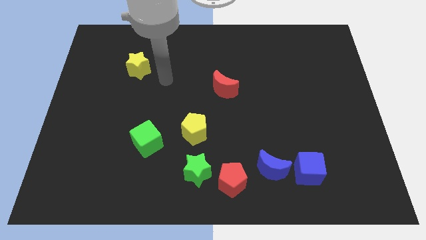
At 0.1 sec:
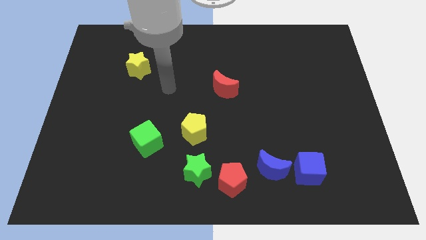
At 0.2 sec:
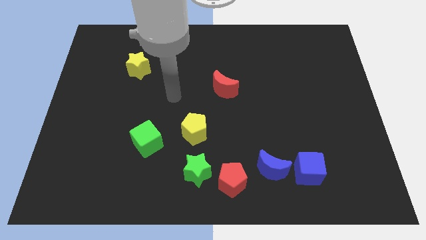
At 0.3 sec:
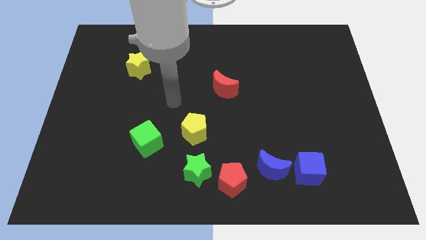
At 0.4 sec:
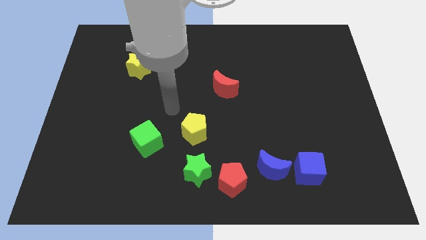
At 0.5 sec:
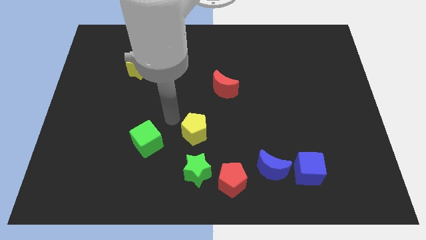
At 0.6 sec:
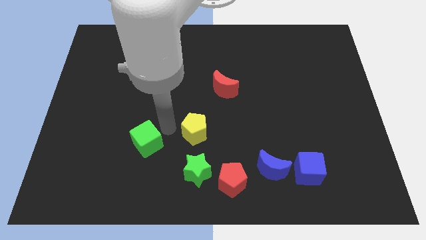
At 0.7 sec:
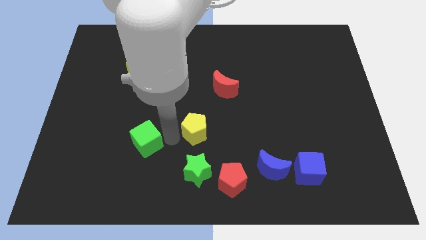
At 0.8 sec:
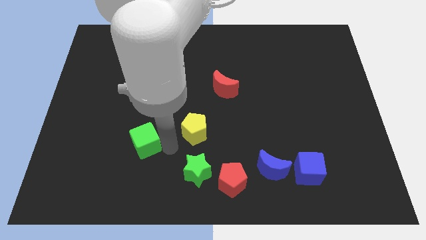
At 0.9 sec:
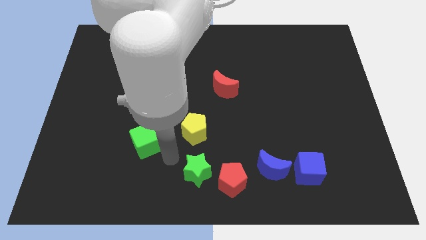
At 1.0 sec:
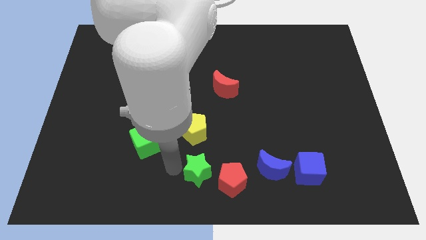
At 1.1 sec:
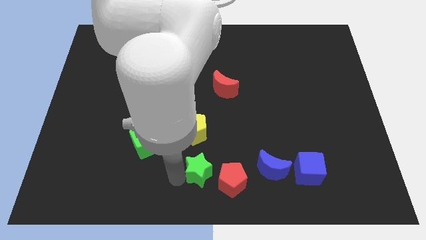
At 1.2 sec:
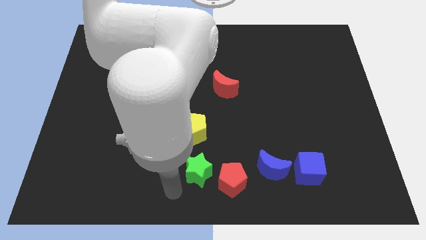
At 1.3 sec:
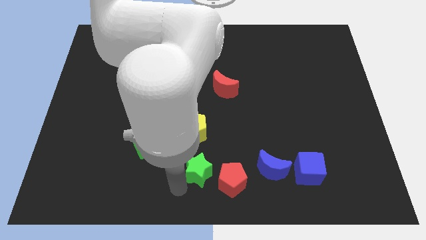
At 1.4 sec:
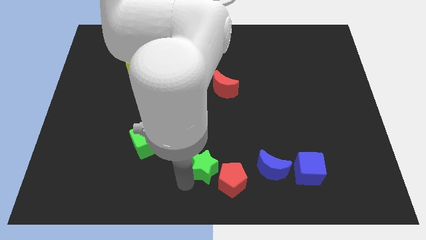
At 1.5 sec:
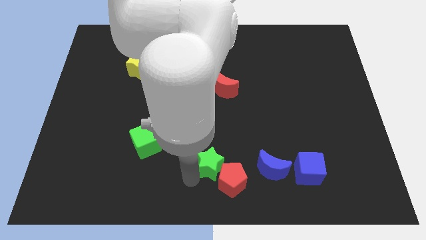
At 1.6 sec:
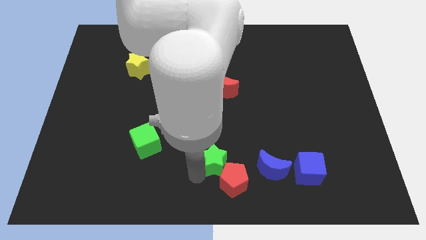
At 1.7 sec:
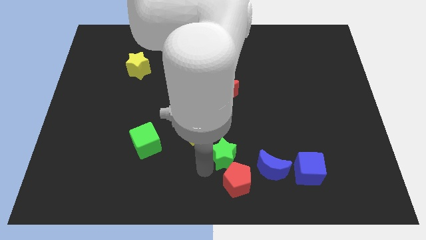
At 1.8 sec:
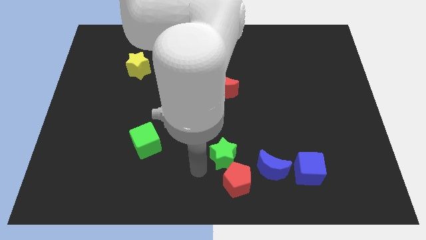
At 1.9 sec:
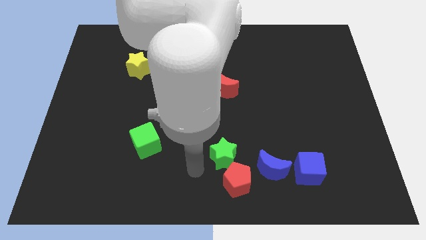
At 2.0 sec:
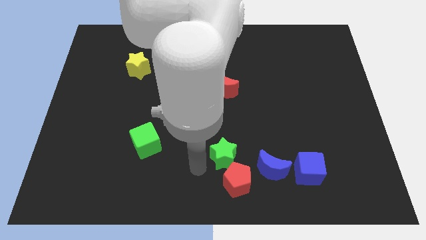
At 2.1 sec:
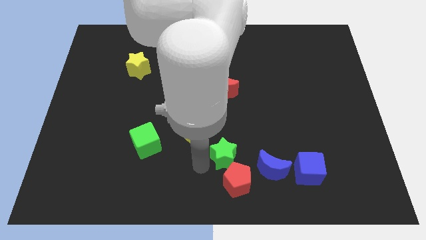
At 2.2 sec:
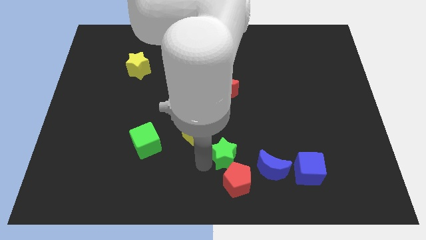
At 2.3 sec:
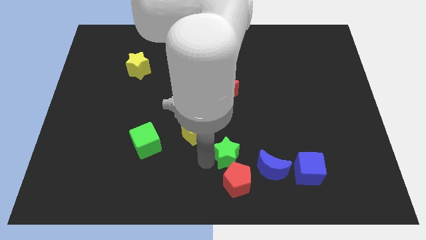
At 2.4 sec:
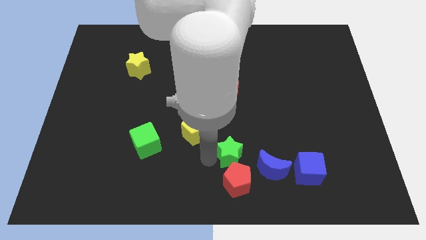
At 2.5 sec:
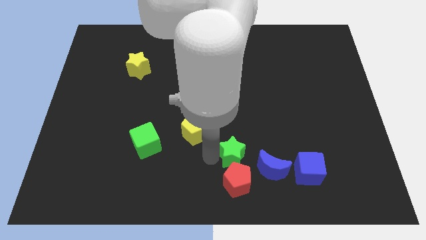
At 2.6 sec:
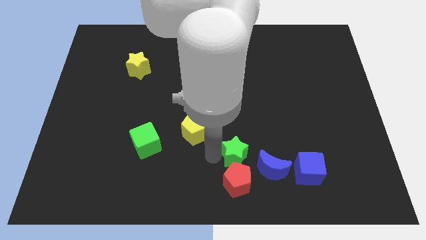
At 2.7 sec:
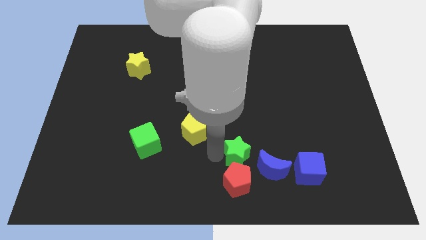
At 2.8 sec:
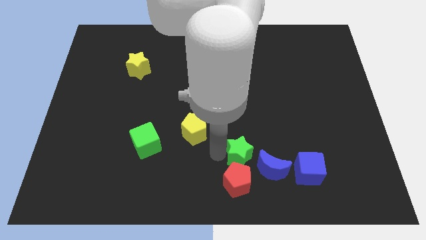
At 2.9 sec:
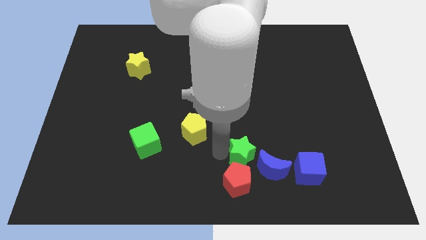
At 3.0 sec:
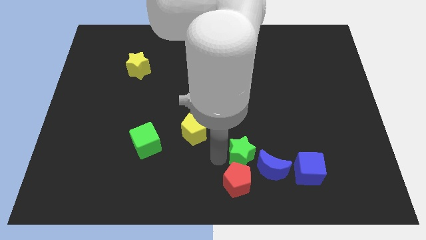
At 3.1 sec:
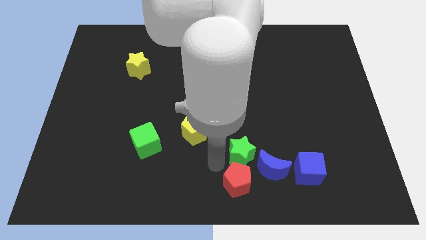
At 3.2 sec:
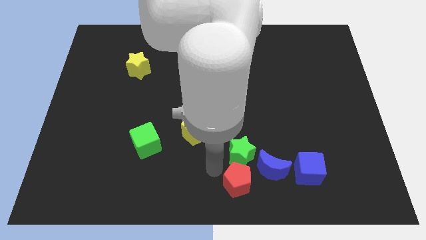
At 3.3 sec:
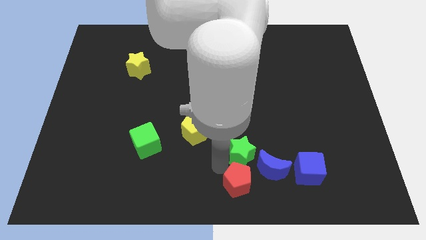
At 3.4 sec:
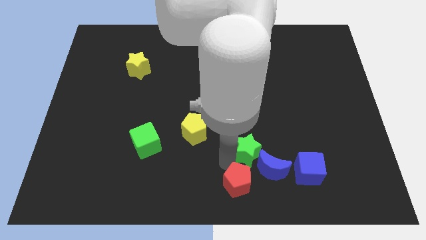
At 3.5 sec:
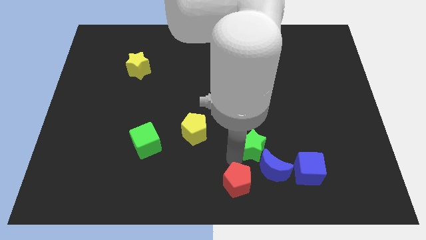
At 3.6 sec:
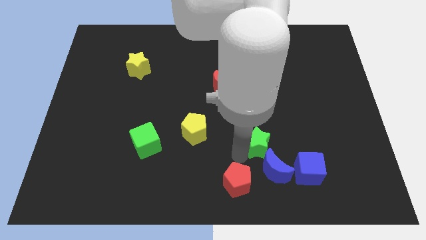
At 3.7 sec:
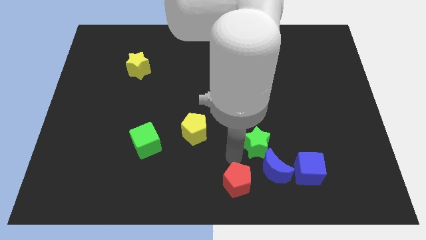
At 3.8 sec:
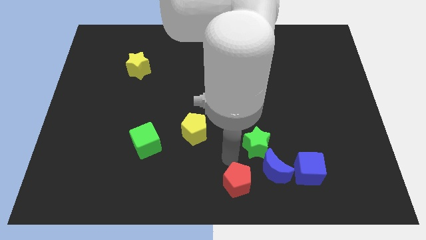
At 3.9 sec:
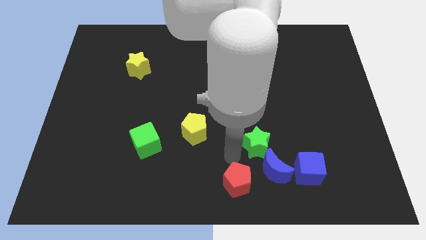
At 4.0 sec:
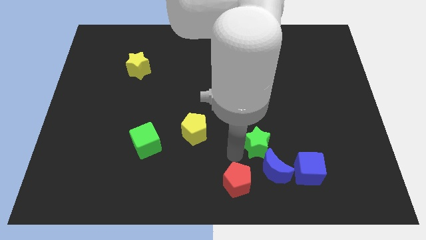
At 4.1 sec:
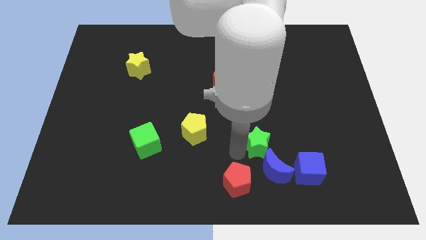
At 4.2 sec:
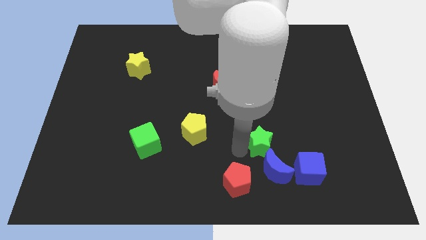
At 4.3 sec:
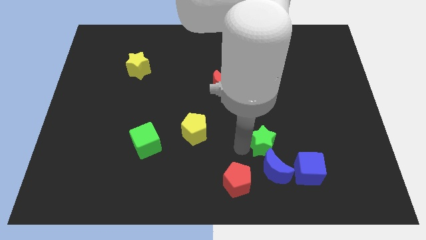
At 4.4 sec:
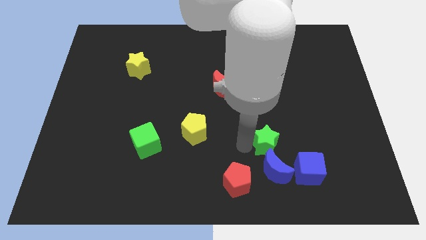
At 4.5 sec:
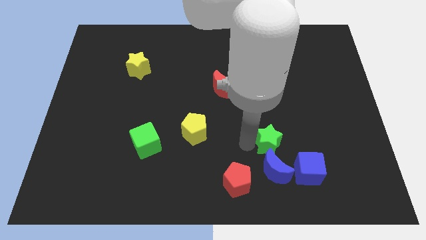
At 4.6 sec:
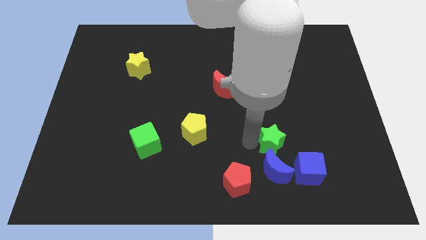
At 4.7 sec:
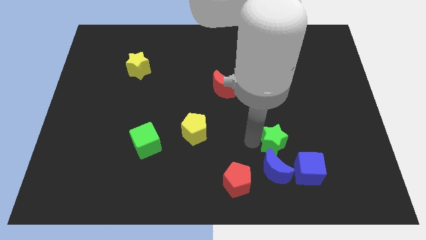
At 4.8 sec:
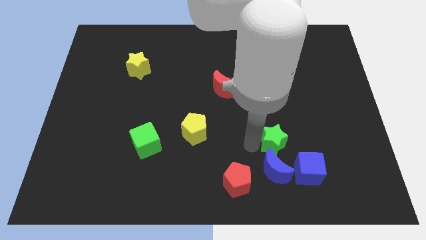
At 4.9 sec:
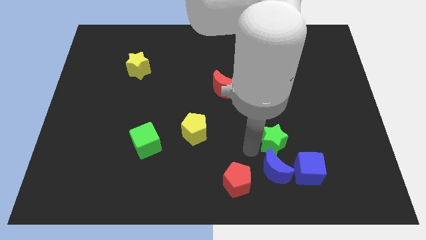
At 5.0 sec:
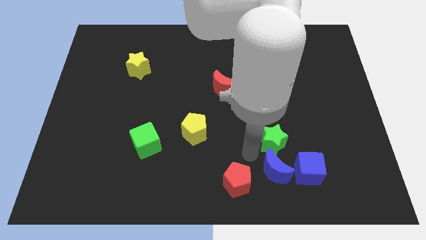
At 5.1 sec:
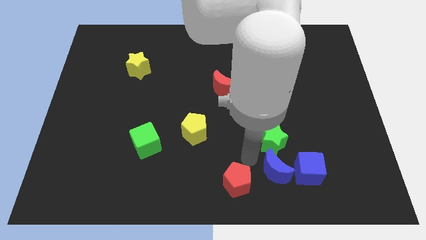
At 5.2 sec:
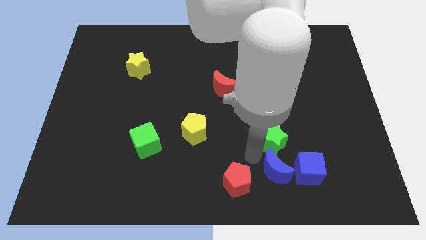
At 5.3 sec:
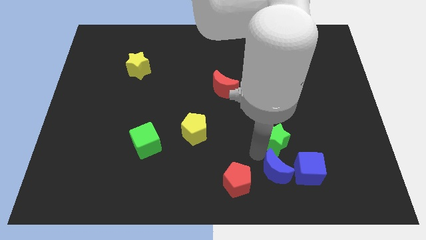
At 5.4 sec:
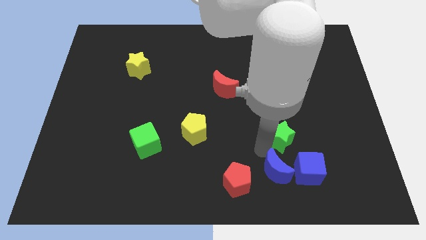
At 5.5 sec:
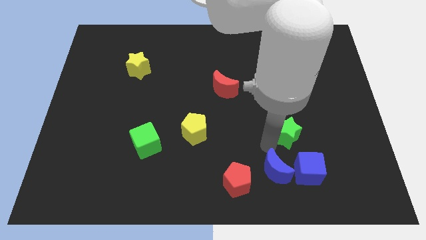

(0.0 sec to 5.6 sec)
push the green star to the top of the blue cube

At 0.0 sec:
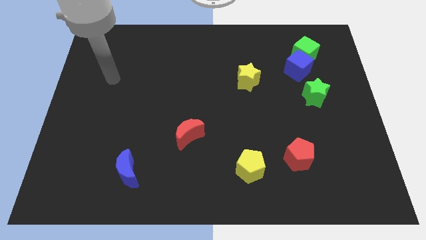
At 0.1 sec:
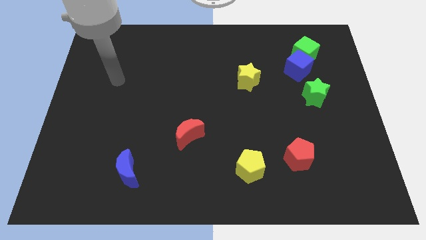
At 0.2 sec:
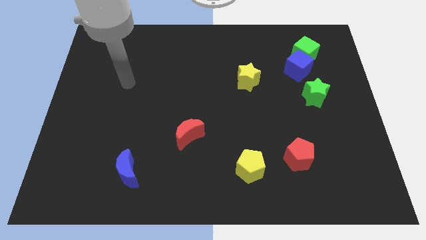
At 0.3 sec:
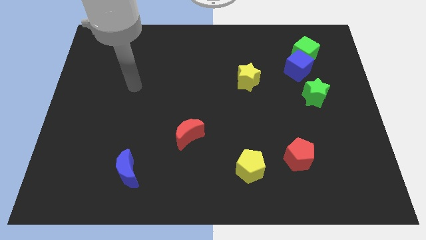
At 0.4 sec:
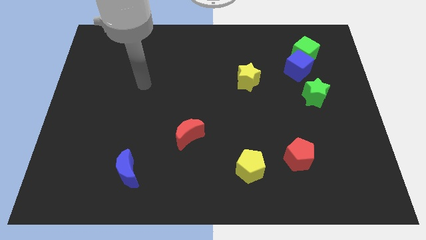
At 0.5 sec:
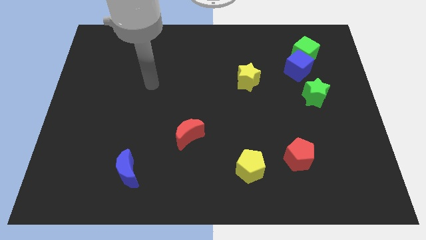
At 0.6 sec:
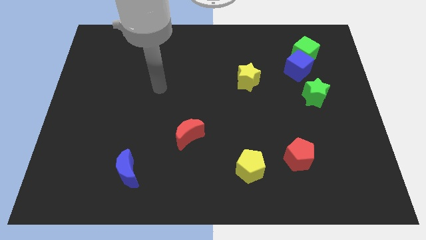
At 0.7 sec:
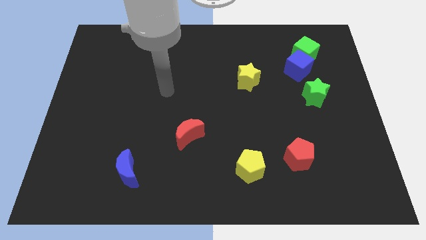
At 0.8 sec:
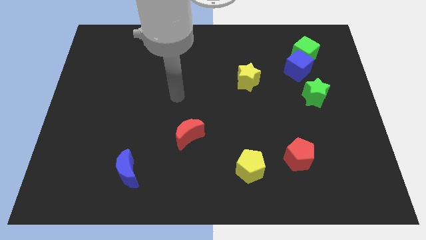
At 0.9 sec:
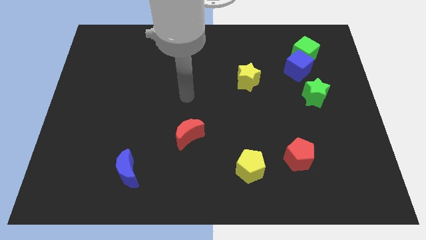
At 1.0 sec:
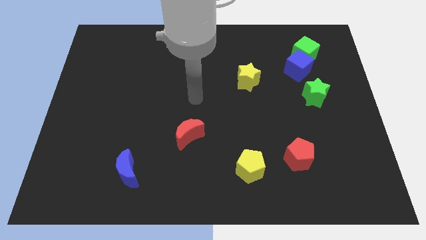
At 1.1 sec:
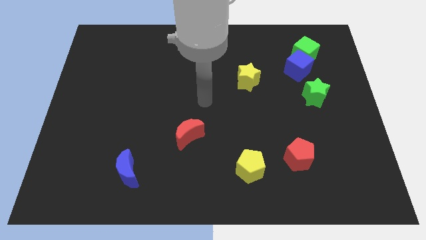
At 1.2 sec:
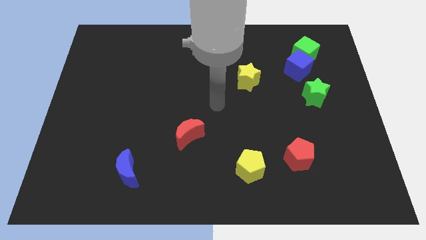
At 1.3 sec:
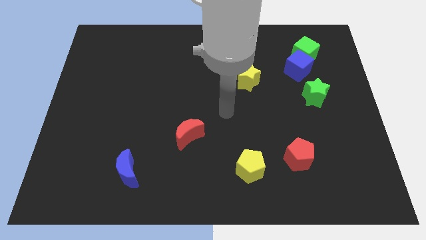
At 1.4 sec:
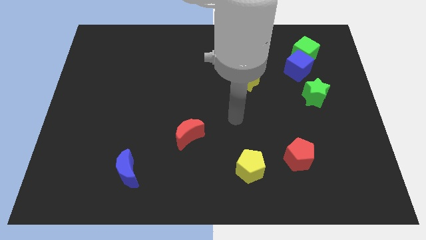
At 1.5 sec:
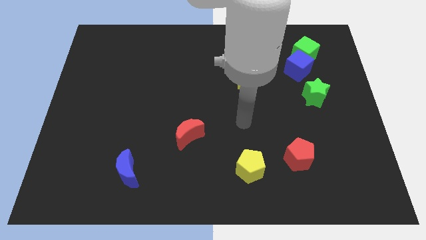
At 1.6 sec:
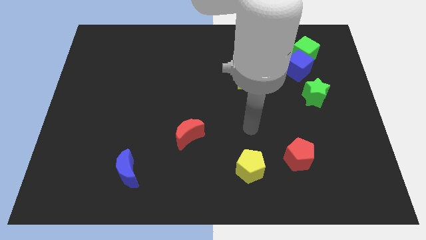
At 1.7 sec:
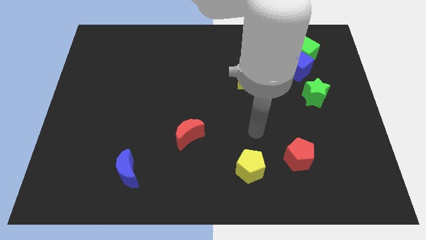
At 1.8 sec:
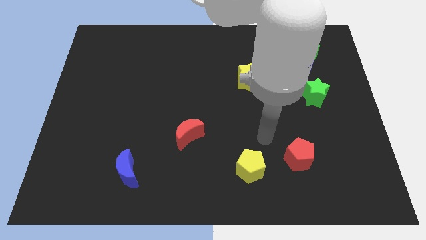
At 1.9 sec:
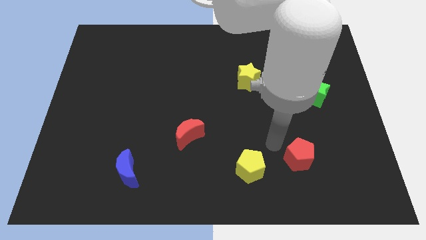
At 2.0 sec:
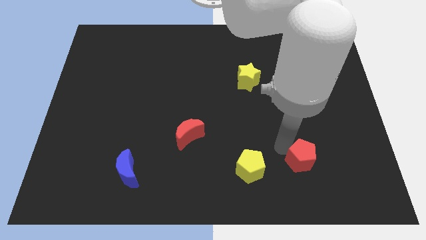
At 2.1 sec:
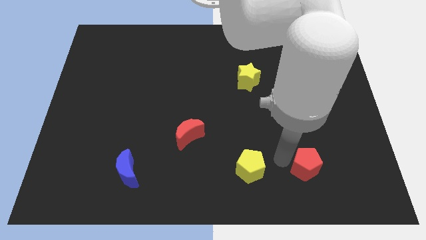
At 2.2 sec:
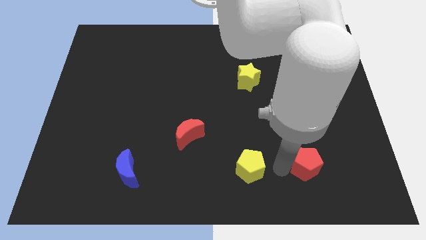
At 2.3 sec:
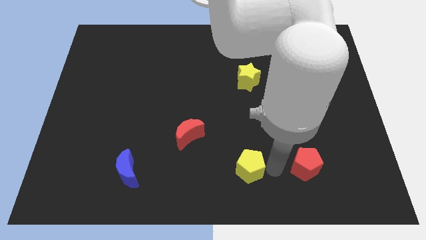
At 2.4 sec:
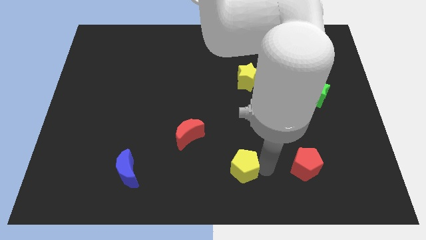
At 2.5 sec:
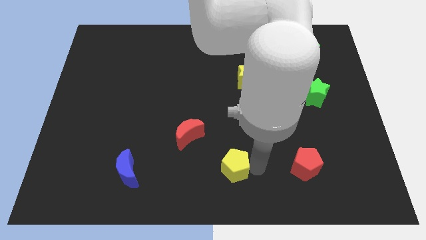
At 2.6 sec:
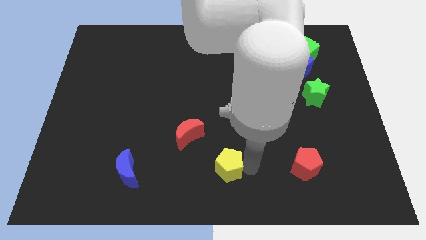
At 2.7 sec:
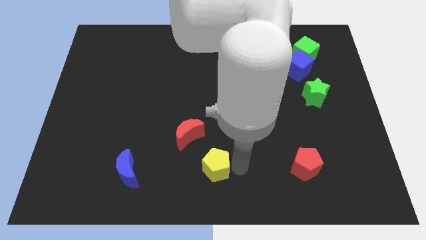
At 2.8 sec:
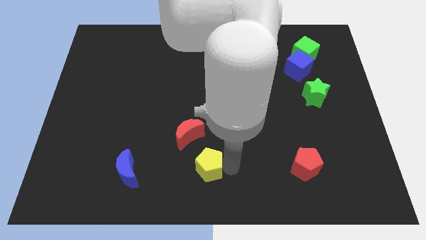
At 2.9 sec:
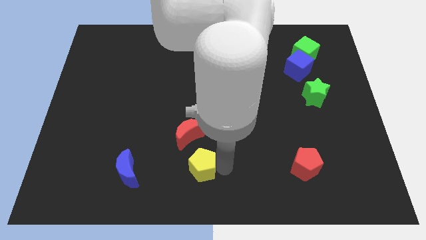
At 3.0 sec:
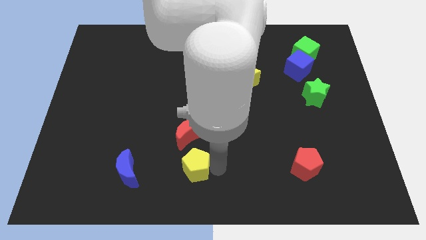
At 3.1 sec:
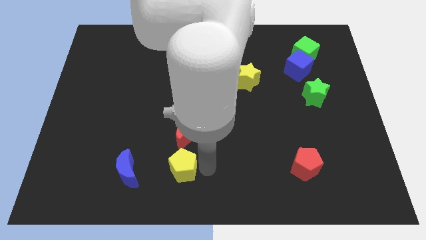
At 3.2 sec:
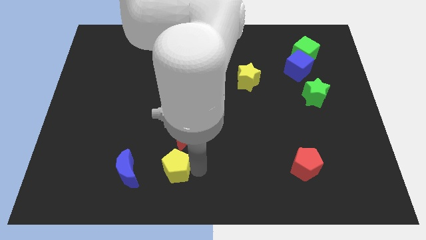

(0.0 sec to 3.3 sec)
put the yellow pentagon to the bottom left of the red moon
